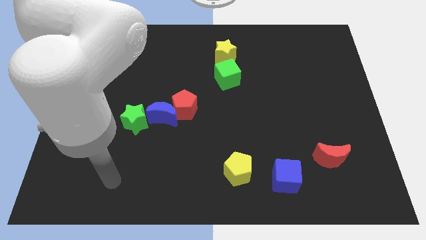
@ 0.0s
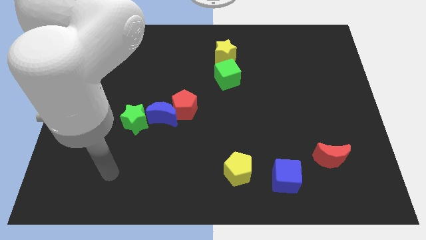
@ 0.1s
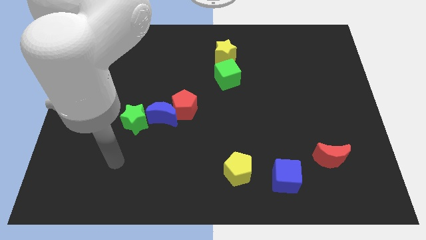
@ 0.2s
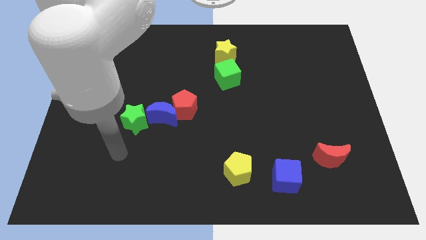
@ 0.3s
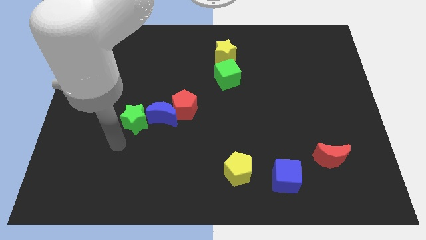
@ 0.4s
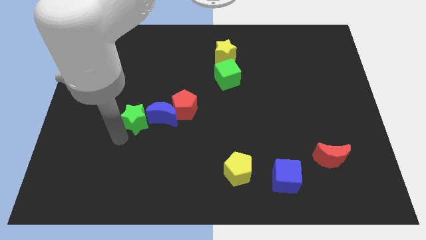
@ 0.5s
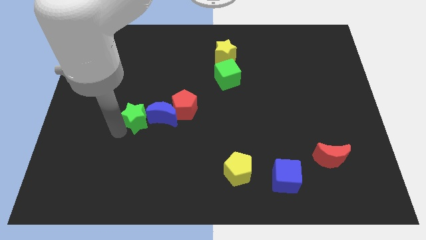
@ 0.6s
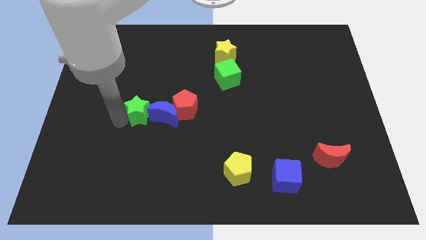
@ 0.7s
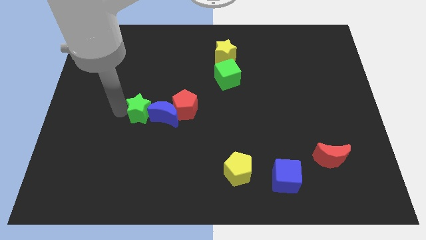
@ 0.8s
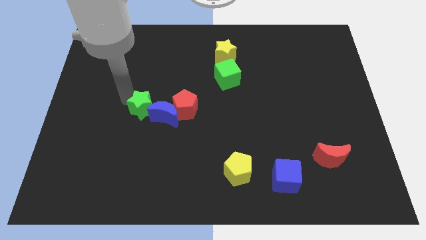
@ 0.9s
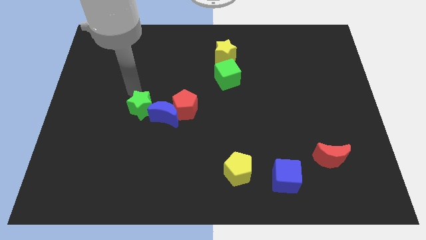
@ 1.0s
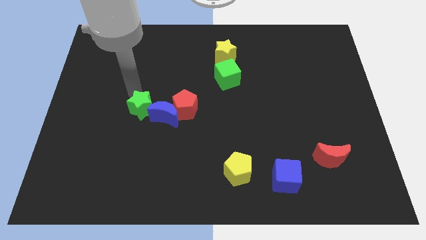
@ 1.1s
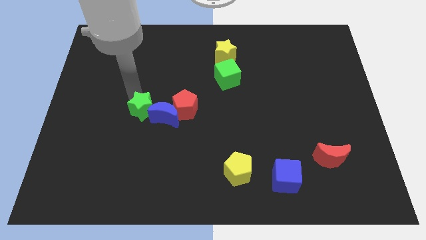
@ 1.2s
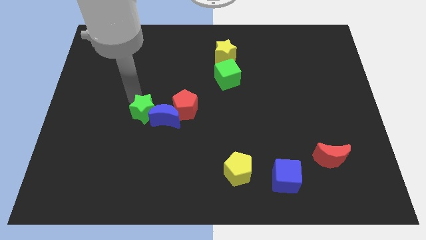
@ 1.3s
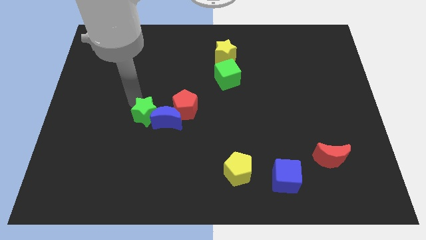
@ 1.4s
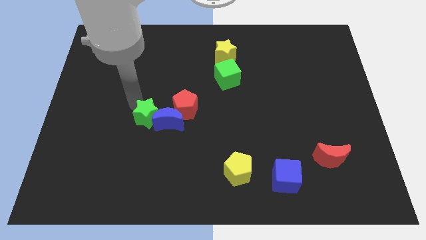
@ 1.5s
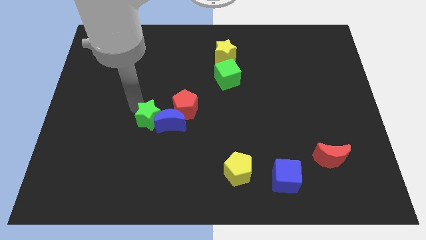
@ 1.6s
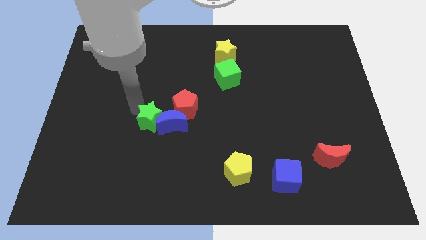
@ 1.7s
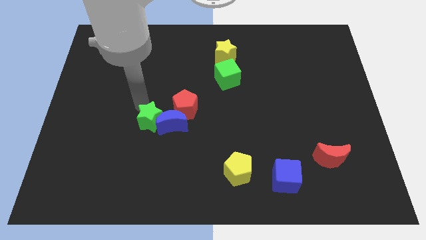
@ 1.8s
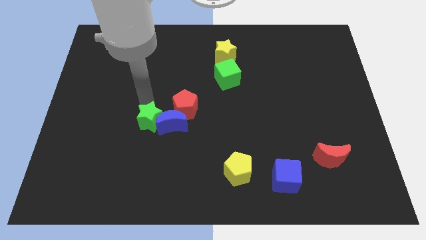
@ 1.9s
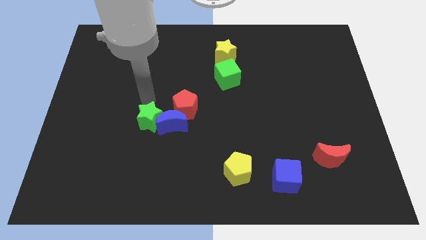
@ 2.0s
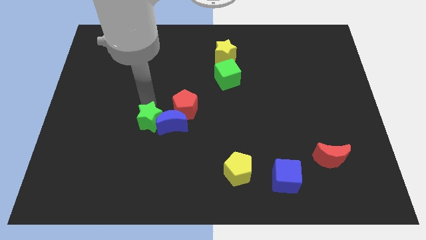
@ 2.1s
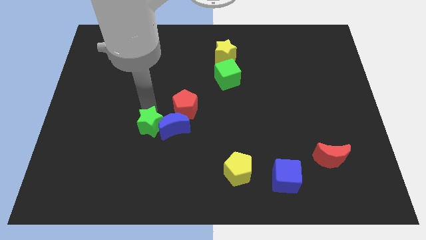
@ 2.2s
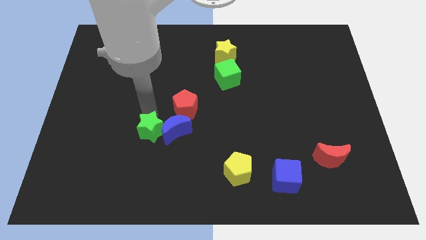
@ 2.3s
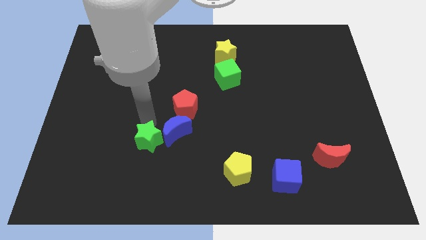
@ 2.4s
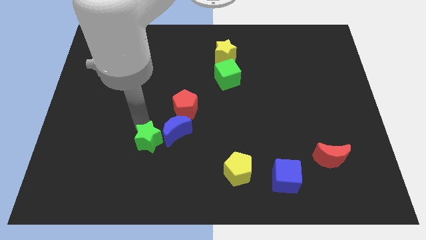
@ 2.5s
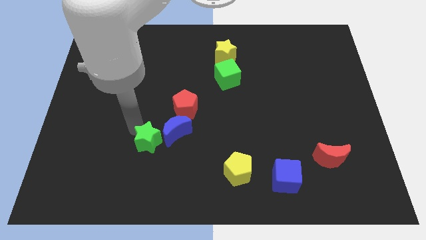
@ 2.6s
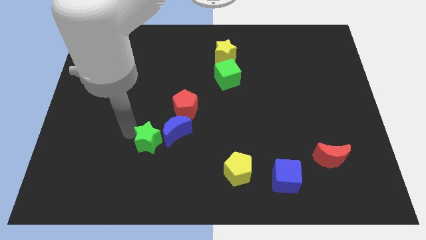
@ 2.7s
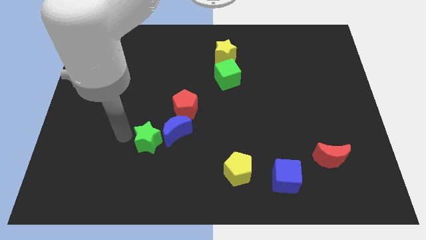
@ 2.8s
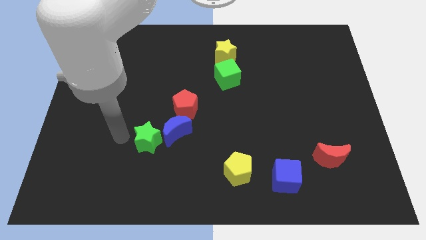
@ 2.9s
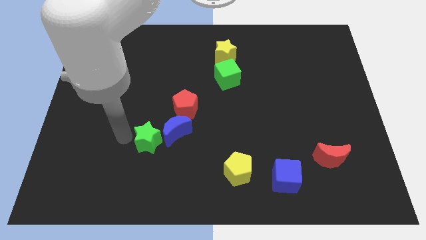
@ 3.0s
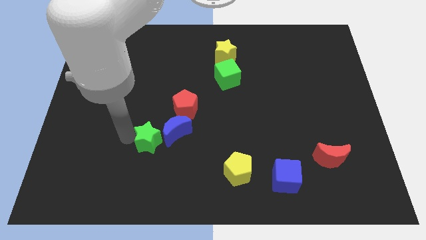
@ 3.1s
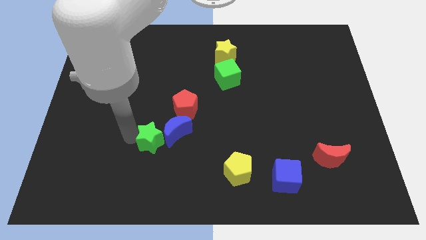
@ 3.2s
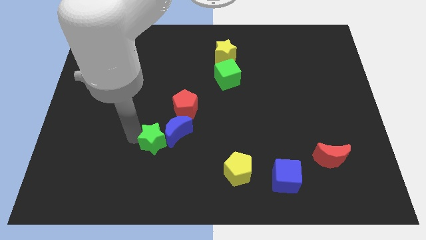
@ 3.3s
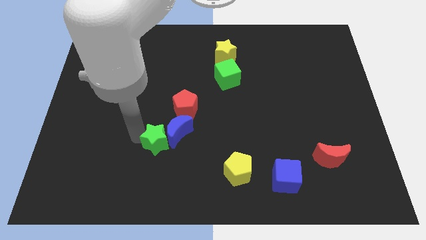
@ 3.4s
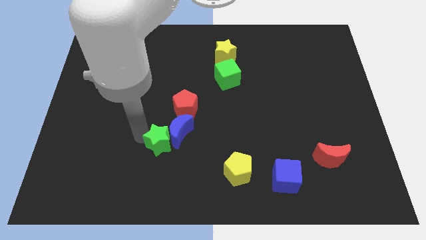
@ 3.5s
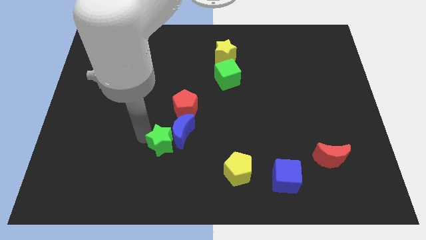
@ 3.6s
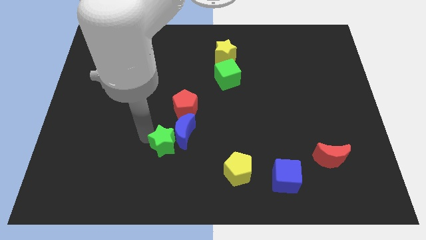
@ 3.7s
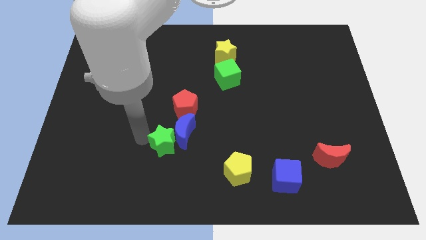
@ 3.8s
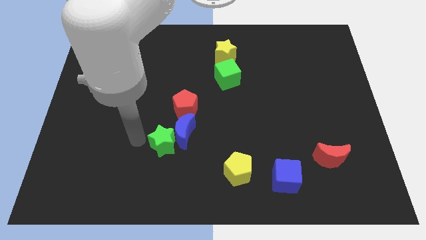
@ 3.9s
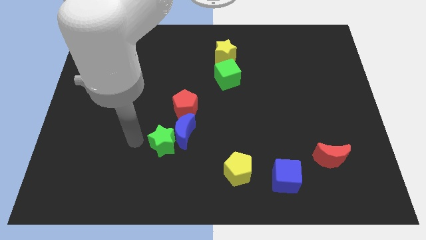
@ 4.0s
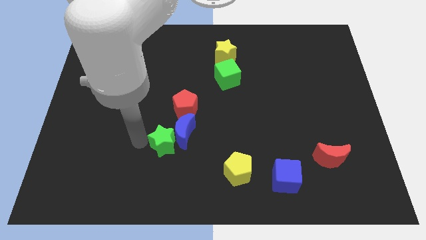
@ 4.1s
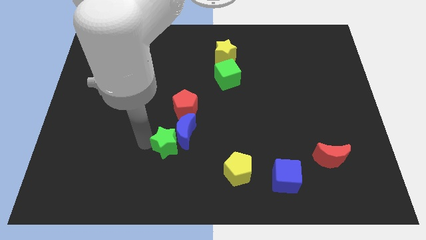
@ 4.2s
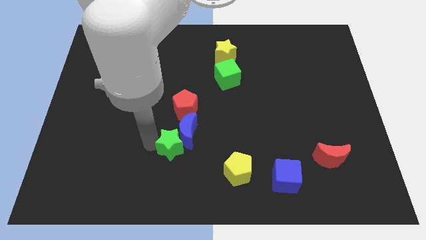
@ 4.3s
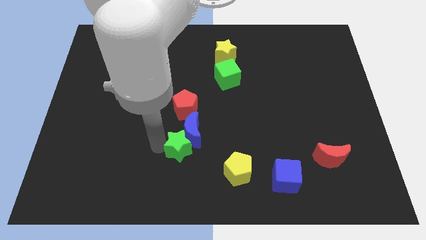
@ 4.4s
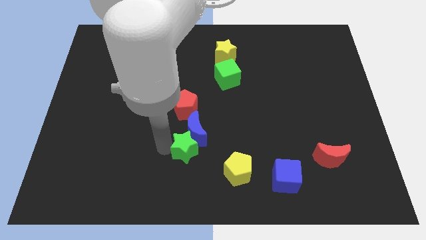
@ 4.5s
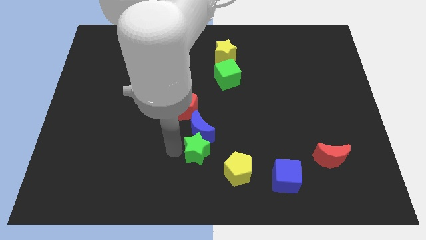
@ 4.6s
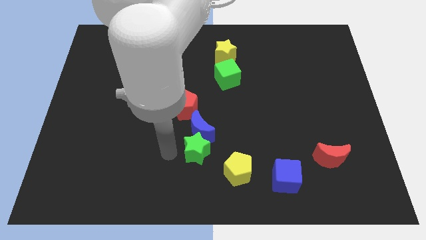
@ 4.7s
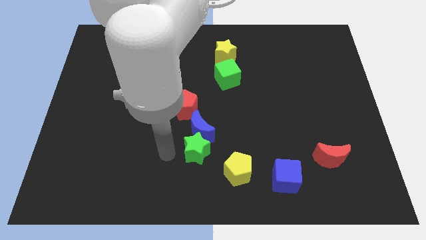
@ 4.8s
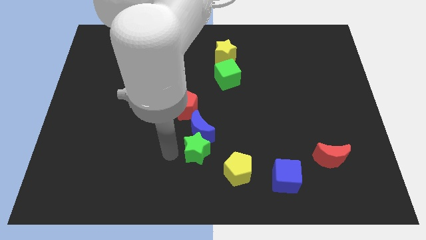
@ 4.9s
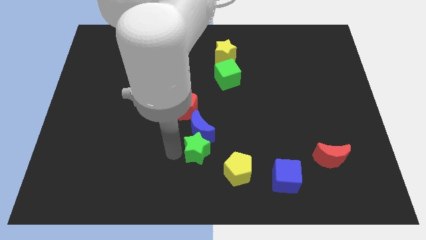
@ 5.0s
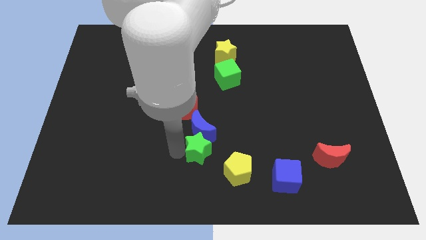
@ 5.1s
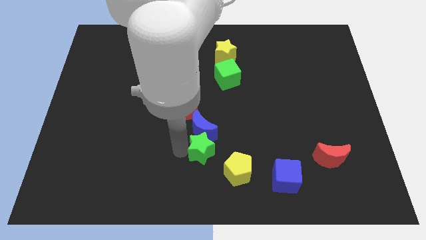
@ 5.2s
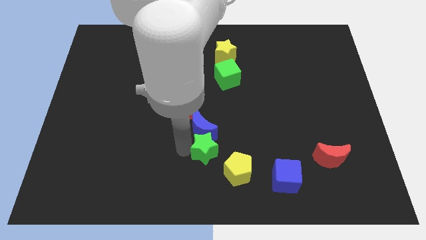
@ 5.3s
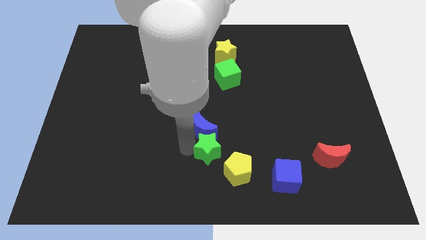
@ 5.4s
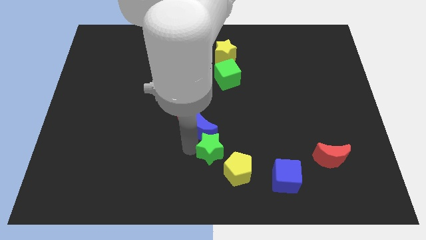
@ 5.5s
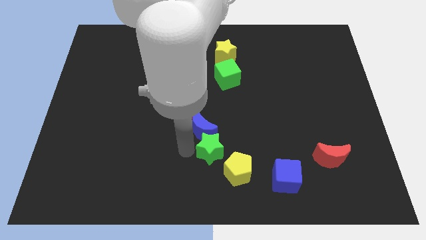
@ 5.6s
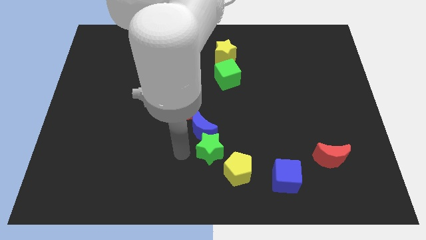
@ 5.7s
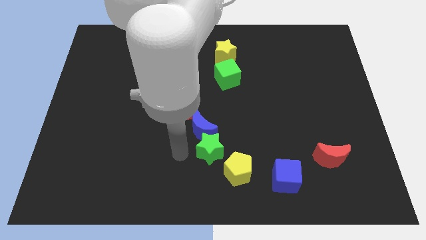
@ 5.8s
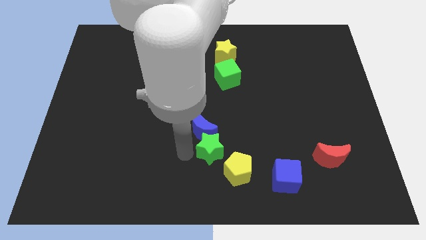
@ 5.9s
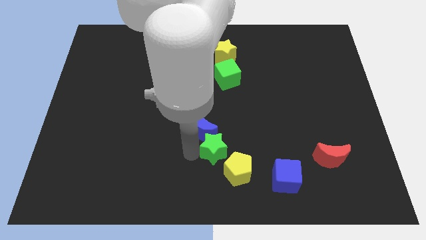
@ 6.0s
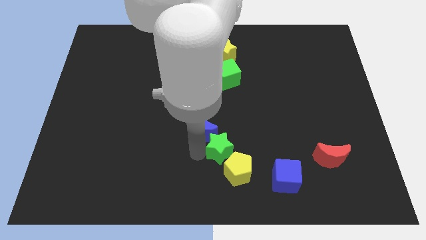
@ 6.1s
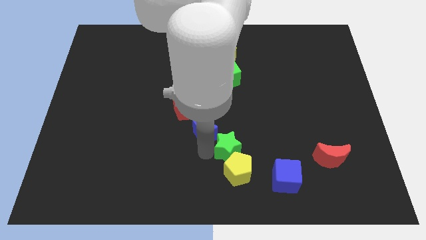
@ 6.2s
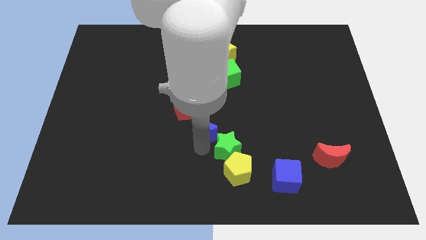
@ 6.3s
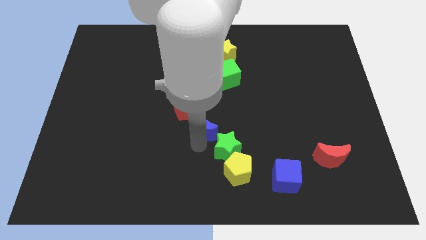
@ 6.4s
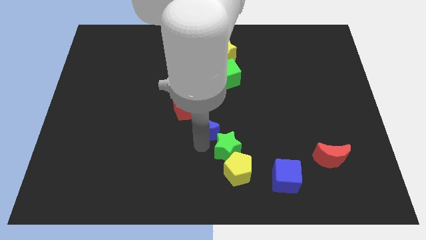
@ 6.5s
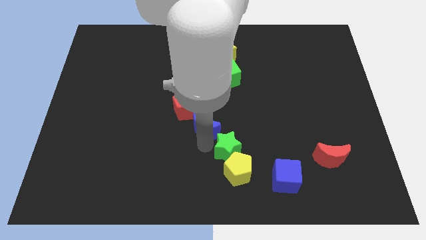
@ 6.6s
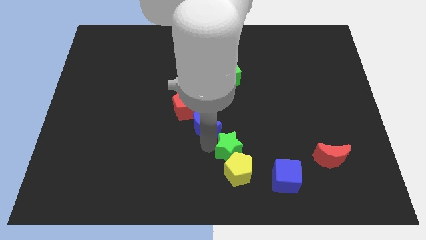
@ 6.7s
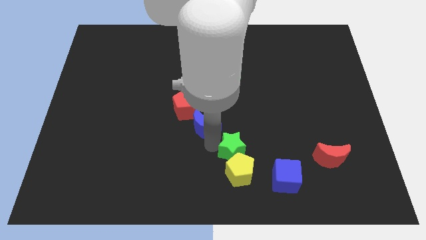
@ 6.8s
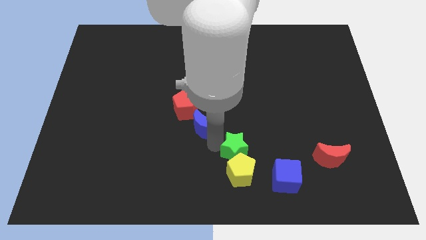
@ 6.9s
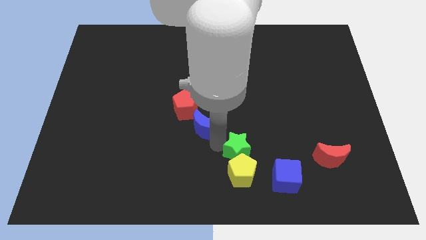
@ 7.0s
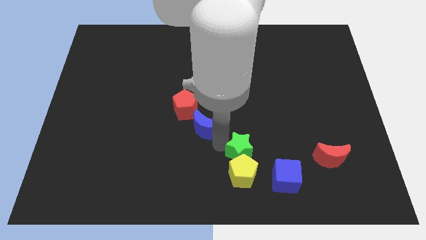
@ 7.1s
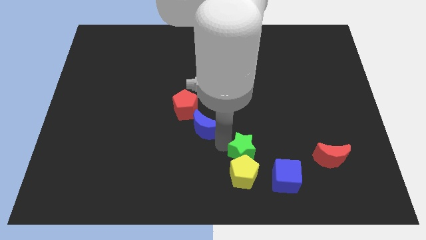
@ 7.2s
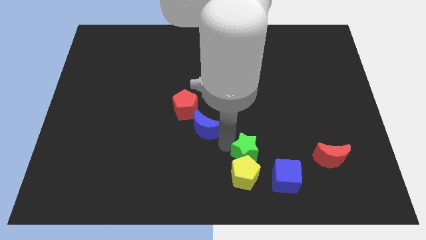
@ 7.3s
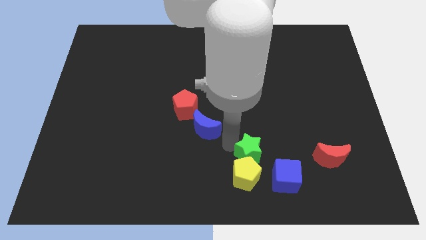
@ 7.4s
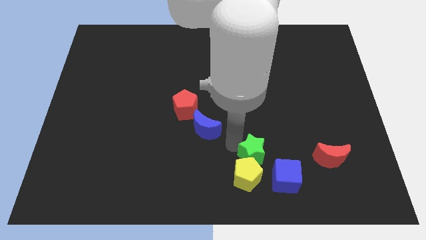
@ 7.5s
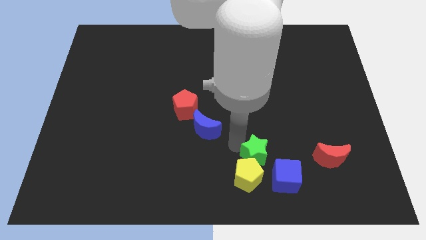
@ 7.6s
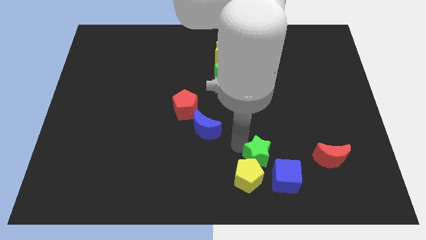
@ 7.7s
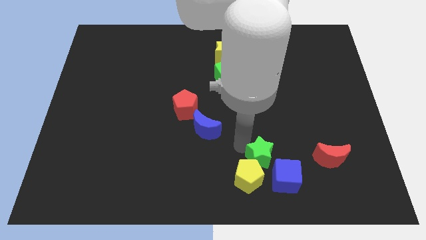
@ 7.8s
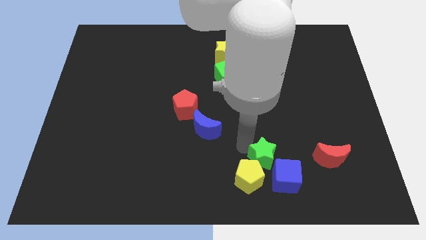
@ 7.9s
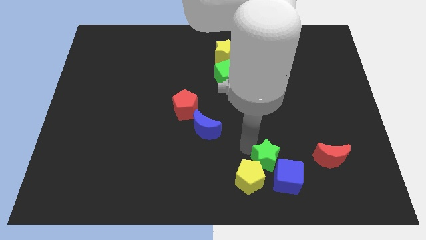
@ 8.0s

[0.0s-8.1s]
slide the green star next to the blue cube
